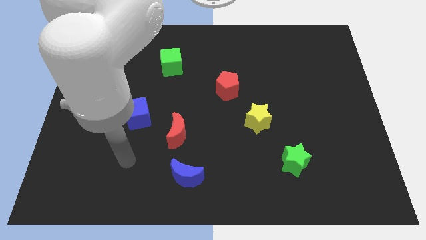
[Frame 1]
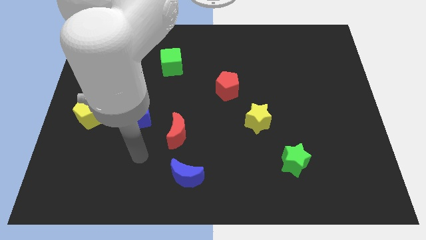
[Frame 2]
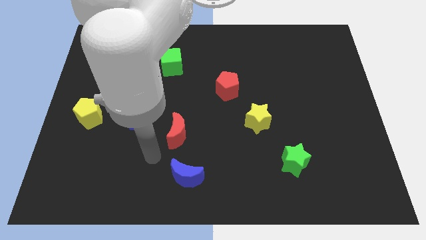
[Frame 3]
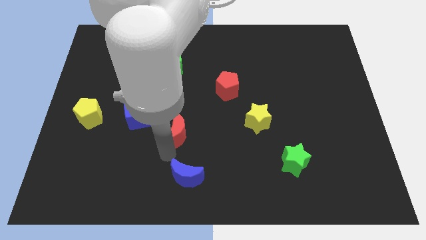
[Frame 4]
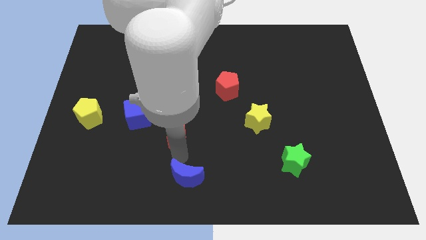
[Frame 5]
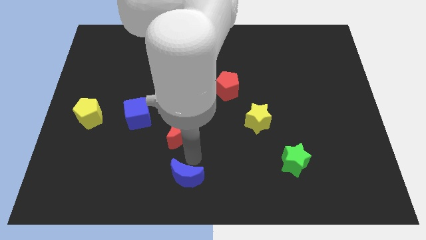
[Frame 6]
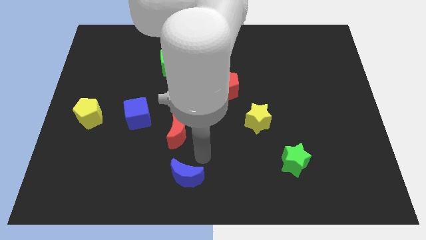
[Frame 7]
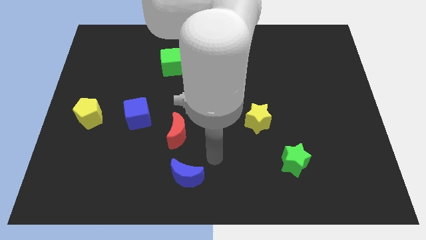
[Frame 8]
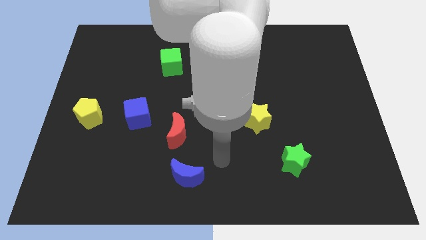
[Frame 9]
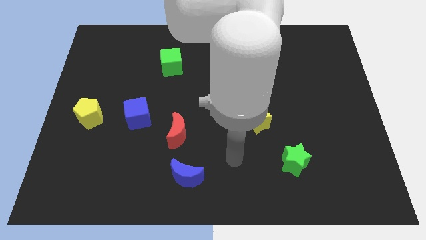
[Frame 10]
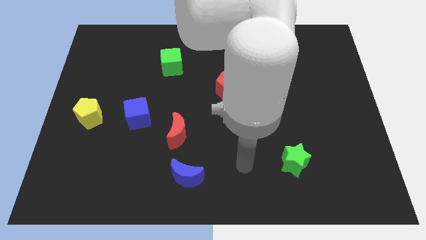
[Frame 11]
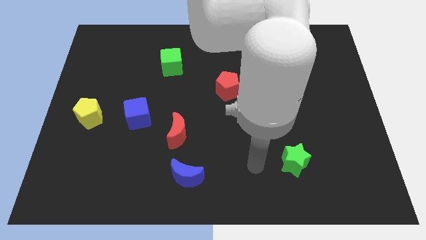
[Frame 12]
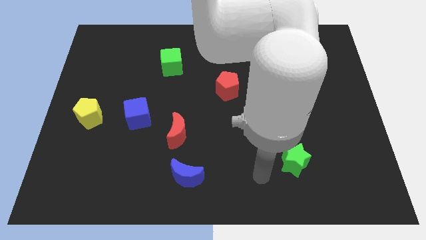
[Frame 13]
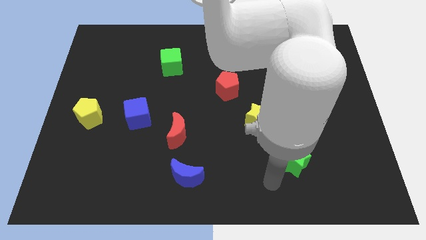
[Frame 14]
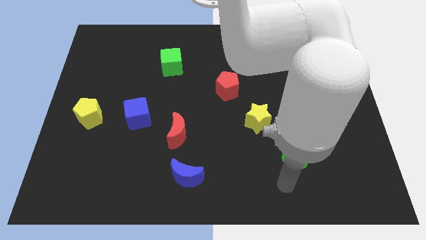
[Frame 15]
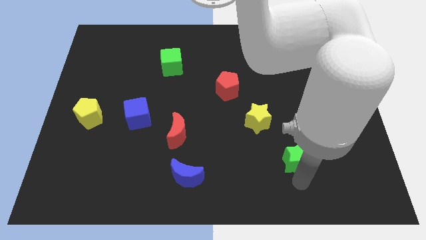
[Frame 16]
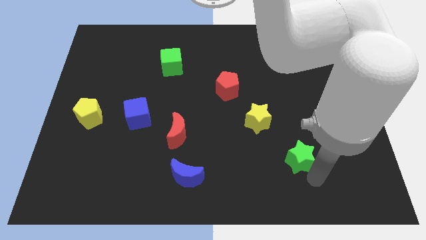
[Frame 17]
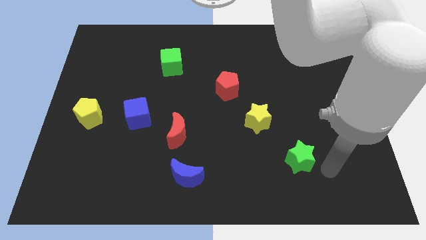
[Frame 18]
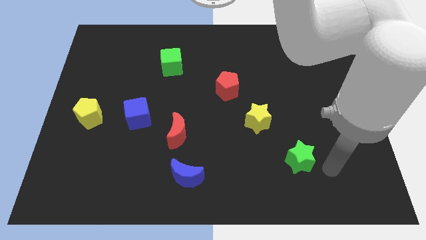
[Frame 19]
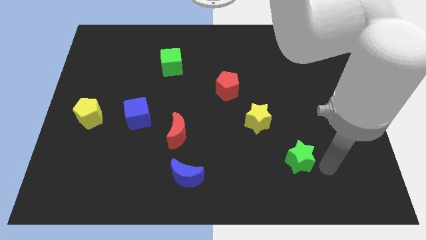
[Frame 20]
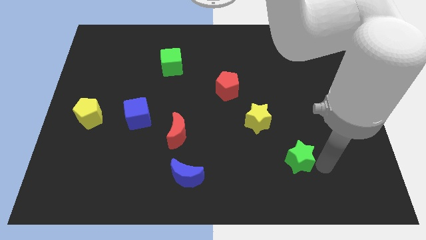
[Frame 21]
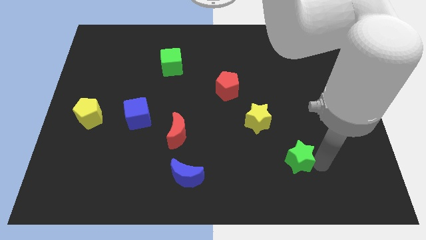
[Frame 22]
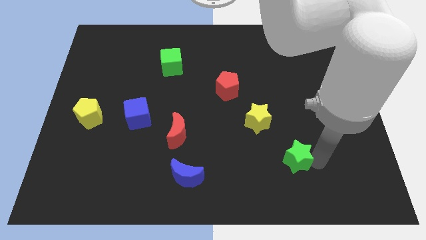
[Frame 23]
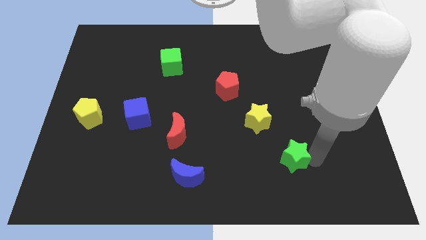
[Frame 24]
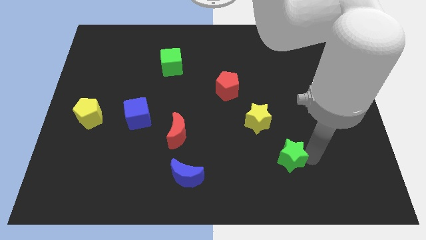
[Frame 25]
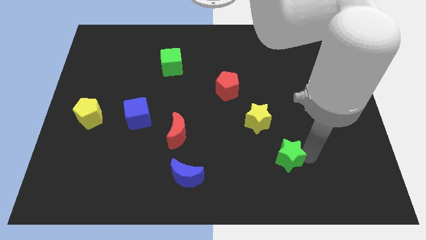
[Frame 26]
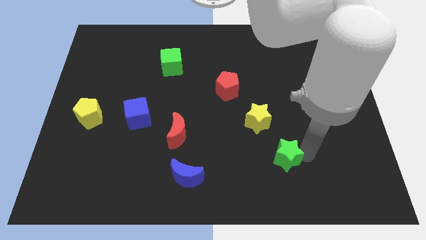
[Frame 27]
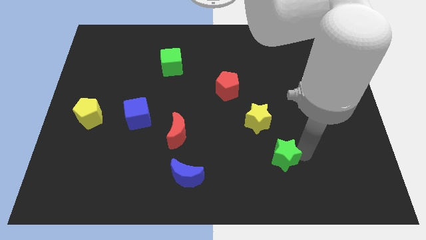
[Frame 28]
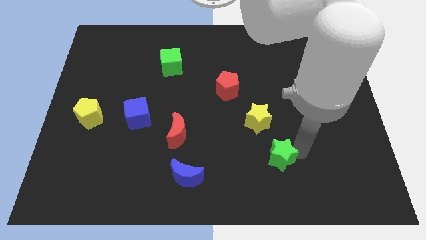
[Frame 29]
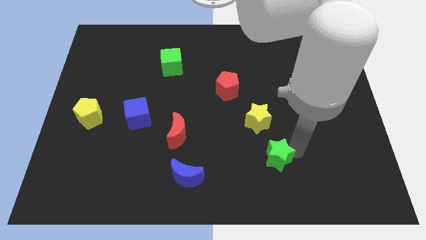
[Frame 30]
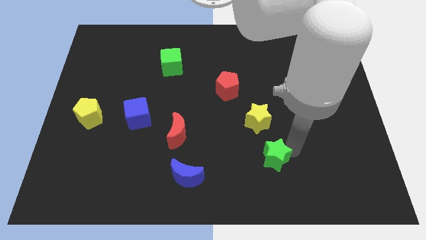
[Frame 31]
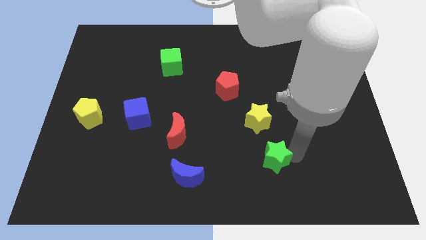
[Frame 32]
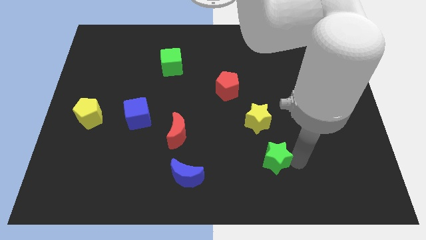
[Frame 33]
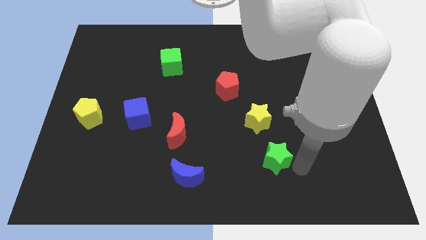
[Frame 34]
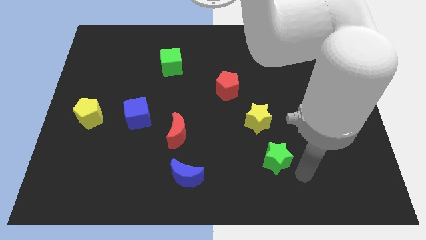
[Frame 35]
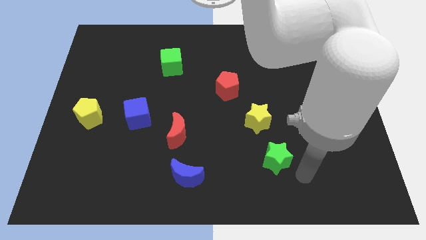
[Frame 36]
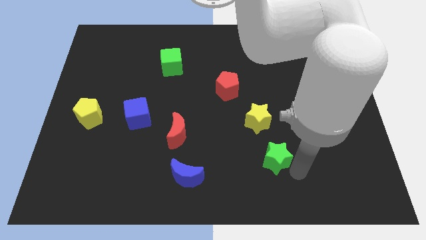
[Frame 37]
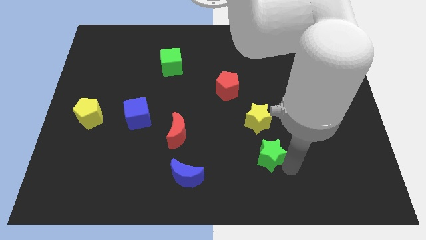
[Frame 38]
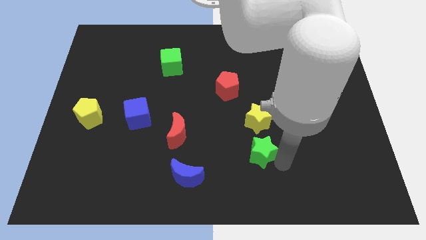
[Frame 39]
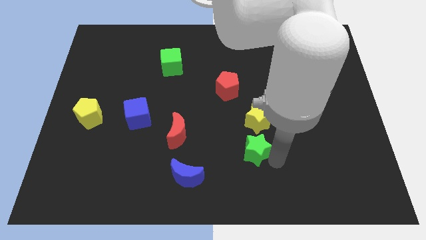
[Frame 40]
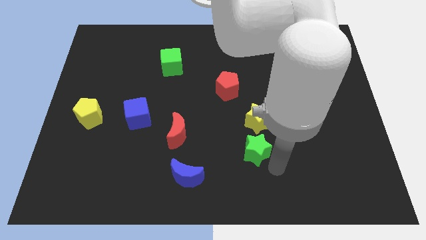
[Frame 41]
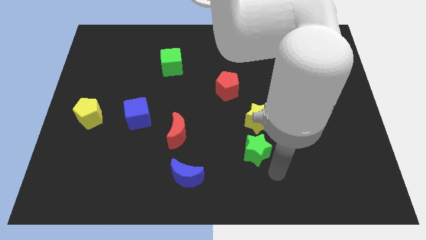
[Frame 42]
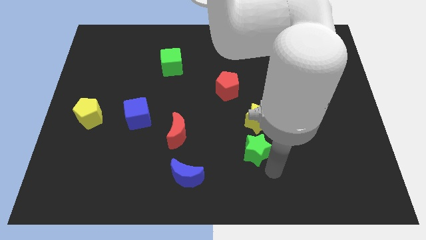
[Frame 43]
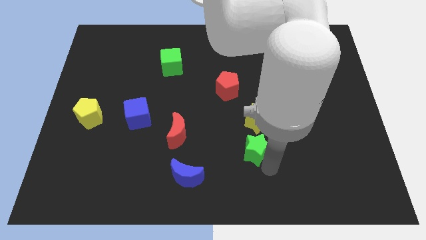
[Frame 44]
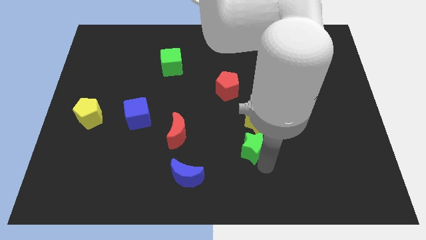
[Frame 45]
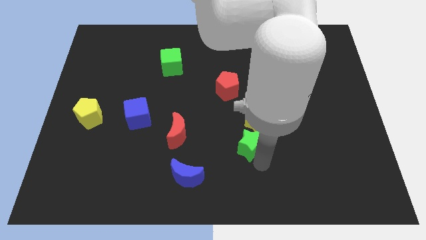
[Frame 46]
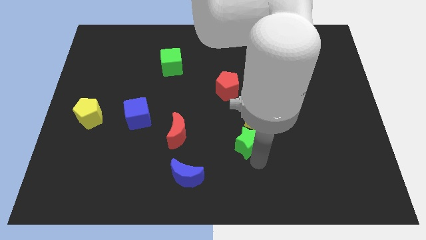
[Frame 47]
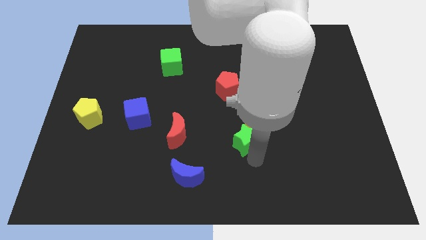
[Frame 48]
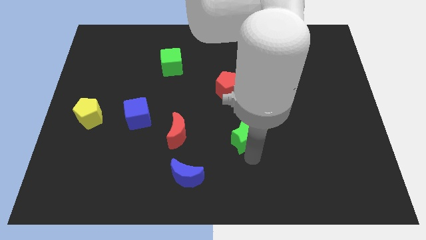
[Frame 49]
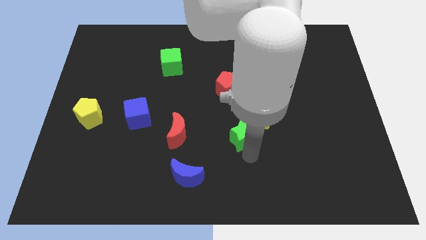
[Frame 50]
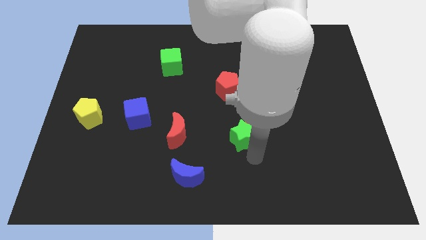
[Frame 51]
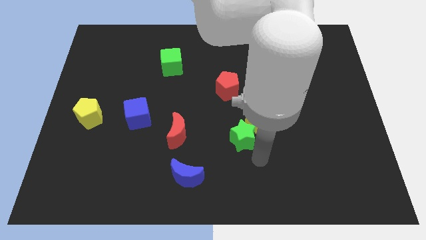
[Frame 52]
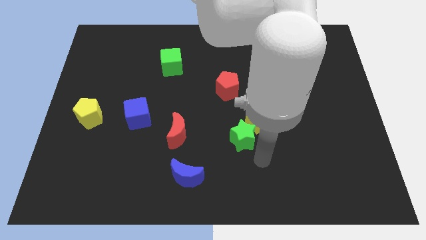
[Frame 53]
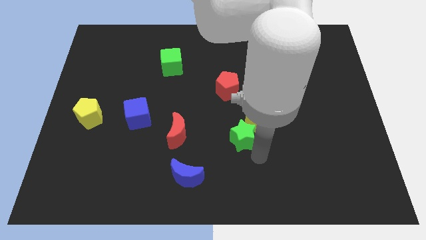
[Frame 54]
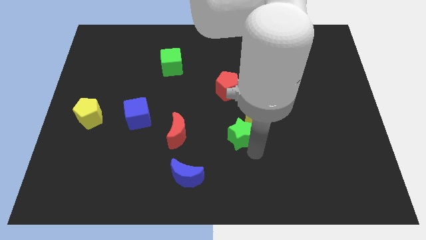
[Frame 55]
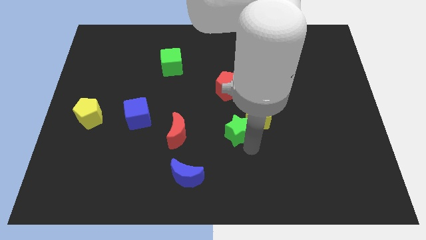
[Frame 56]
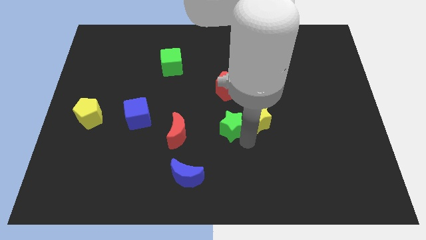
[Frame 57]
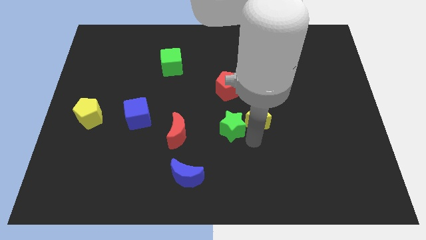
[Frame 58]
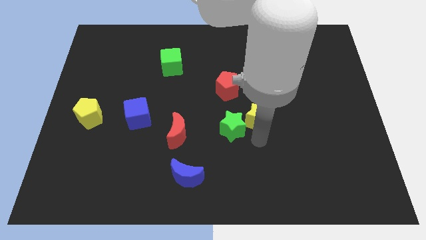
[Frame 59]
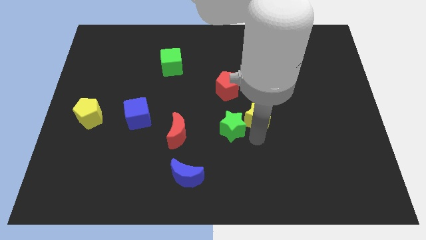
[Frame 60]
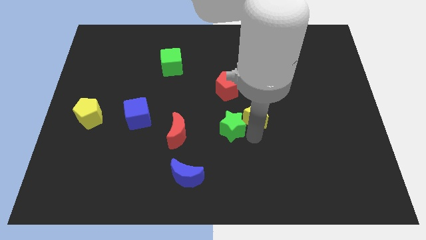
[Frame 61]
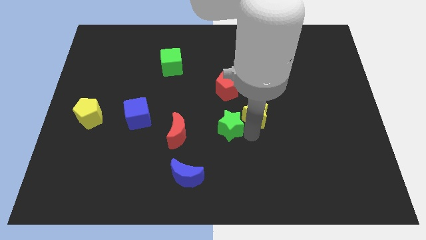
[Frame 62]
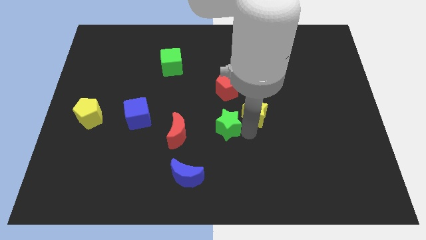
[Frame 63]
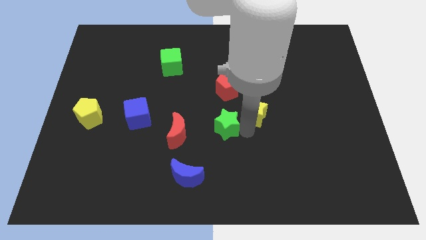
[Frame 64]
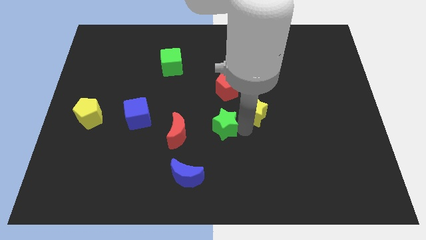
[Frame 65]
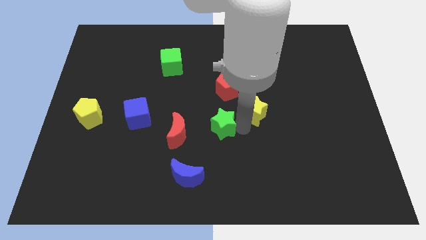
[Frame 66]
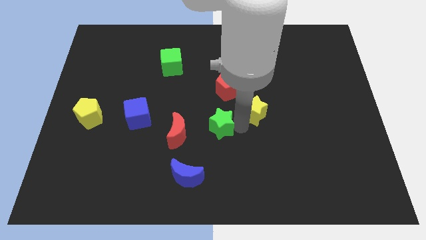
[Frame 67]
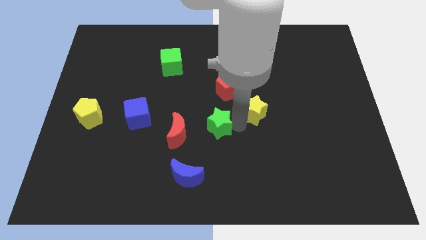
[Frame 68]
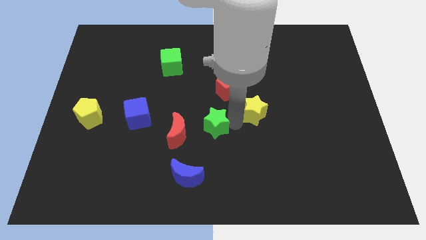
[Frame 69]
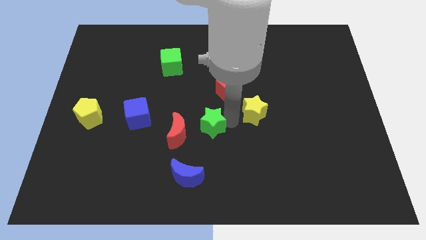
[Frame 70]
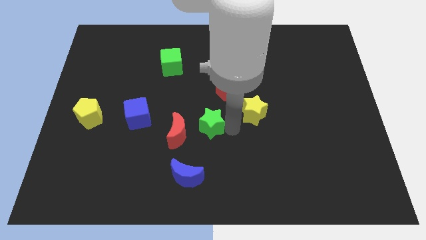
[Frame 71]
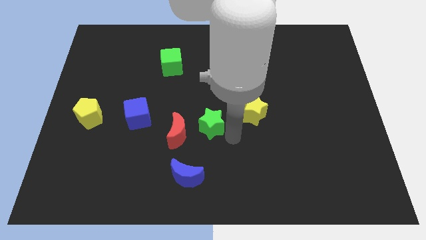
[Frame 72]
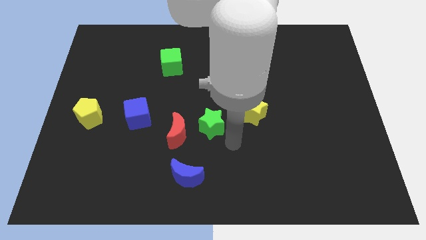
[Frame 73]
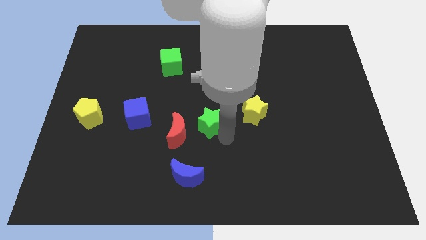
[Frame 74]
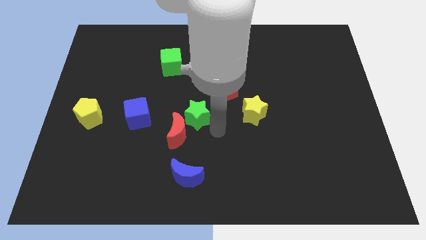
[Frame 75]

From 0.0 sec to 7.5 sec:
move the green star above the red moon
